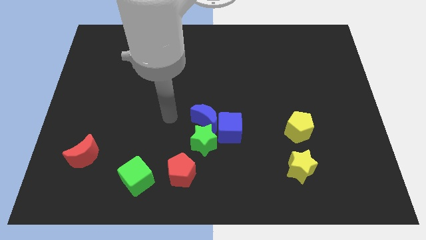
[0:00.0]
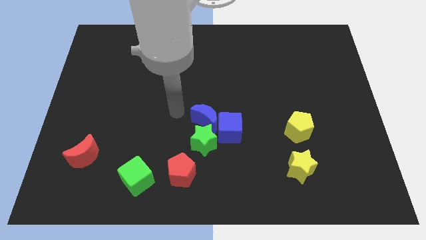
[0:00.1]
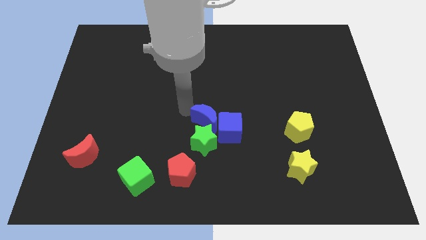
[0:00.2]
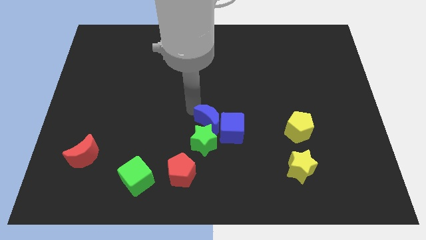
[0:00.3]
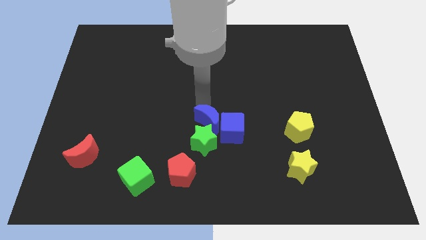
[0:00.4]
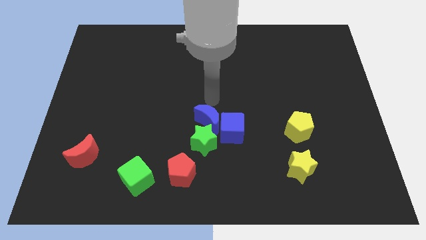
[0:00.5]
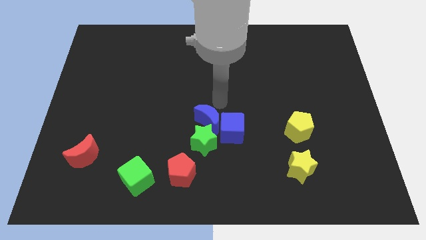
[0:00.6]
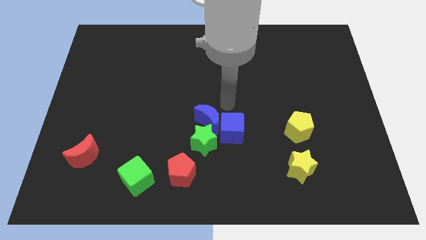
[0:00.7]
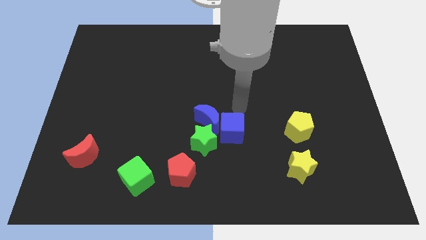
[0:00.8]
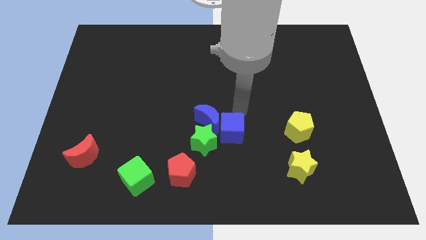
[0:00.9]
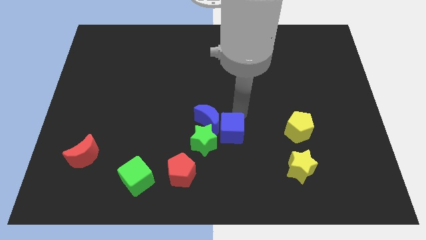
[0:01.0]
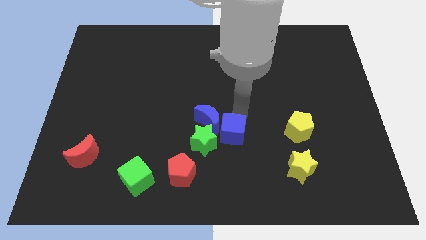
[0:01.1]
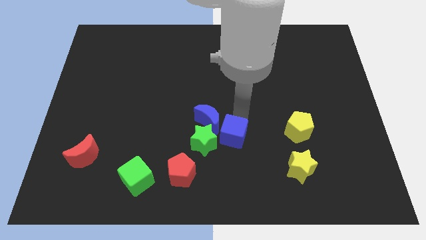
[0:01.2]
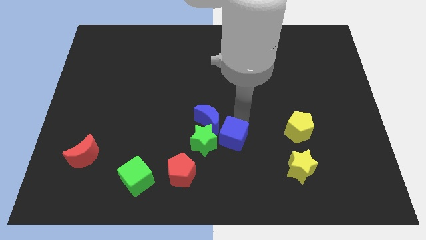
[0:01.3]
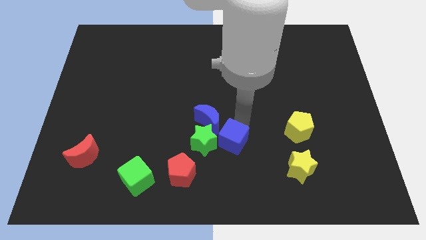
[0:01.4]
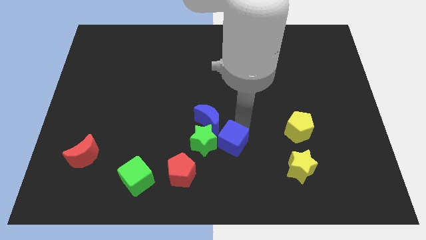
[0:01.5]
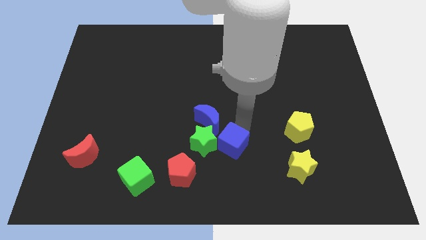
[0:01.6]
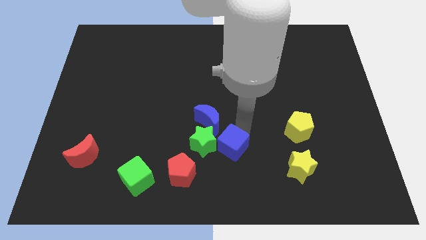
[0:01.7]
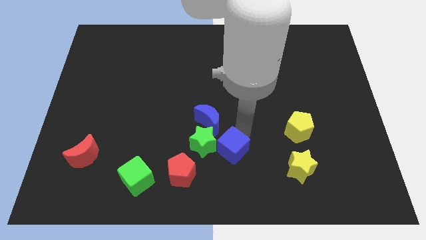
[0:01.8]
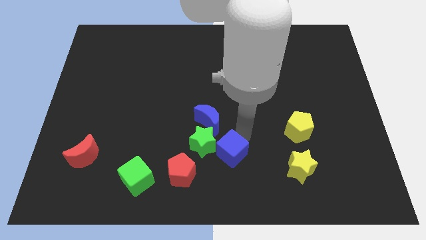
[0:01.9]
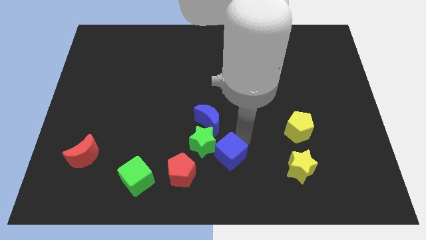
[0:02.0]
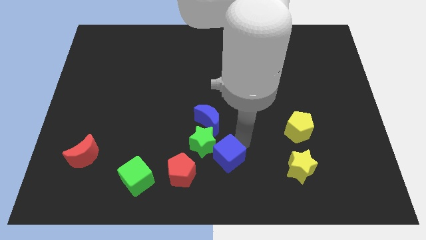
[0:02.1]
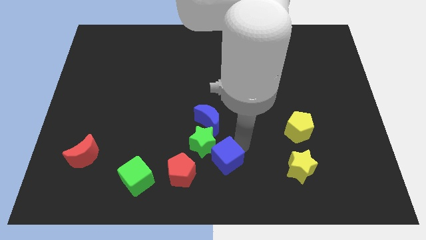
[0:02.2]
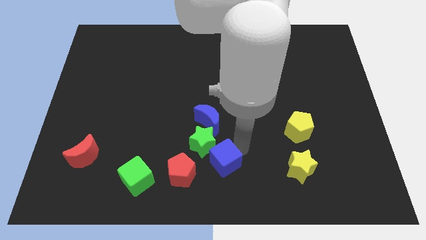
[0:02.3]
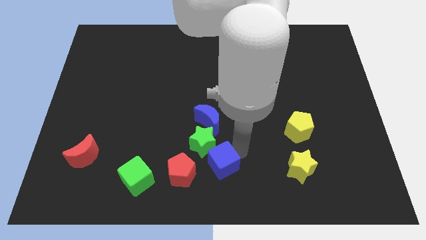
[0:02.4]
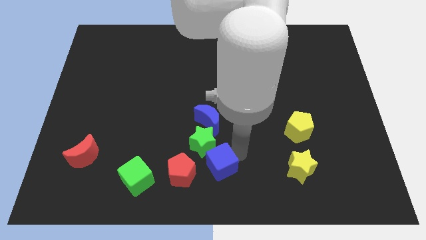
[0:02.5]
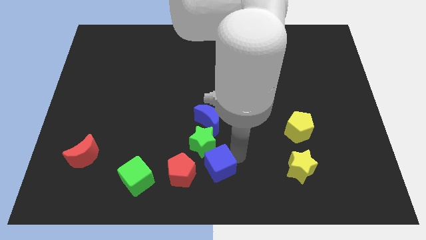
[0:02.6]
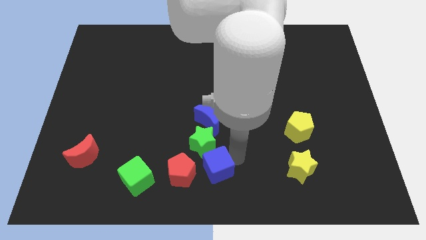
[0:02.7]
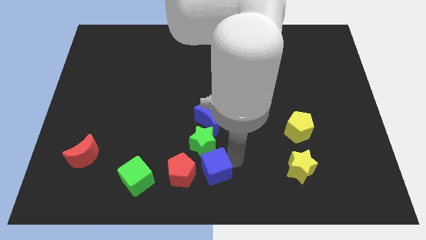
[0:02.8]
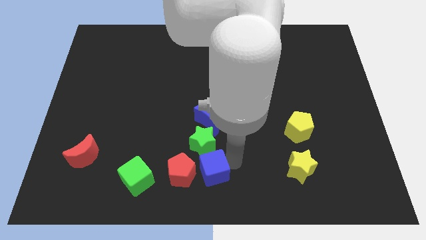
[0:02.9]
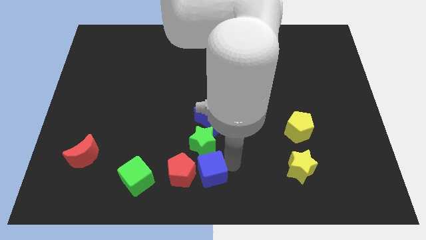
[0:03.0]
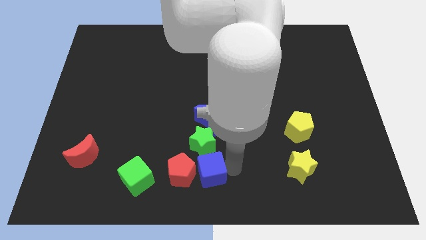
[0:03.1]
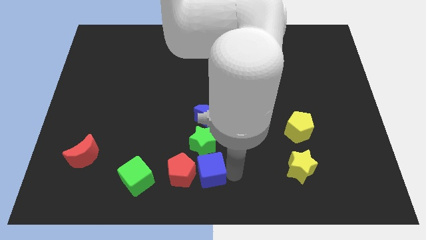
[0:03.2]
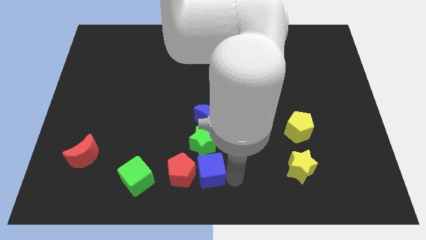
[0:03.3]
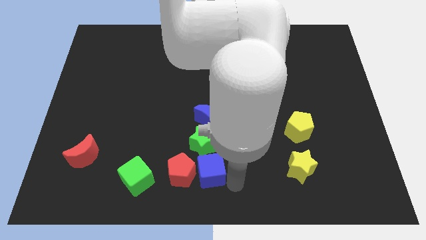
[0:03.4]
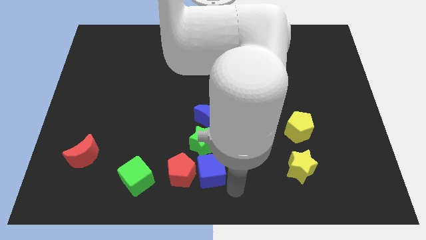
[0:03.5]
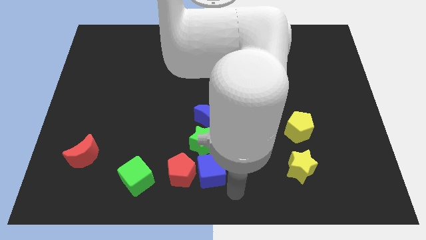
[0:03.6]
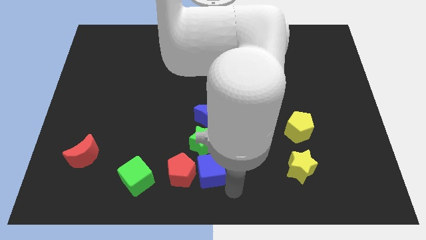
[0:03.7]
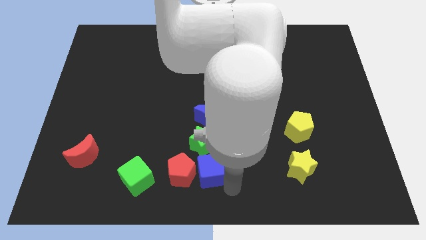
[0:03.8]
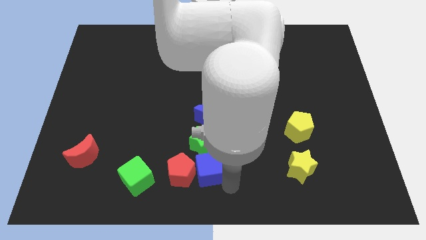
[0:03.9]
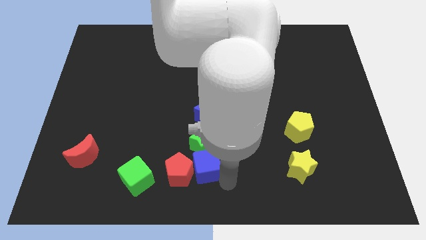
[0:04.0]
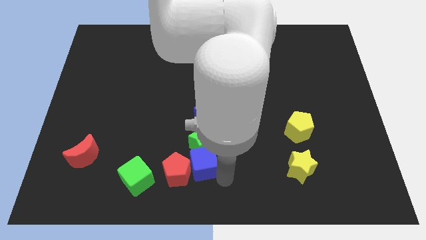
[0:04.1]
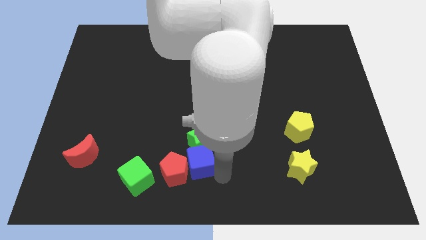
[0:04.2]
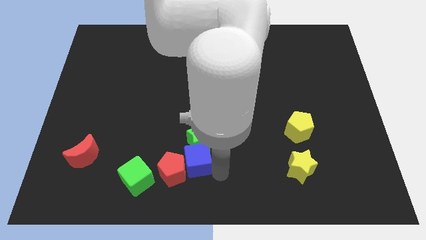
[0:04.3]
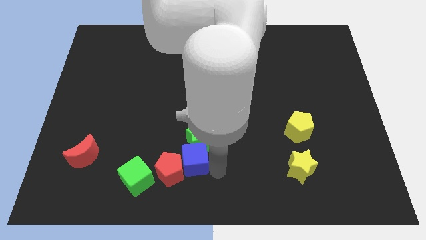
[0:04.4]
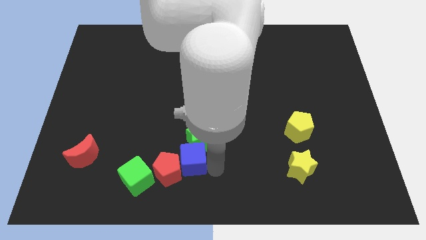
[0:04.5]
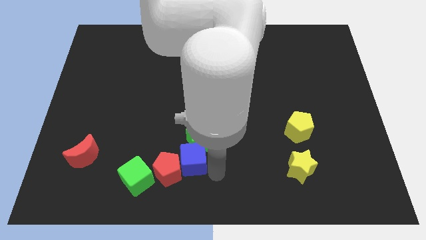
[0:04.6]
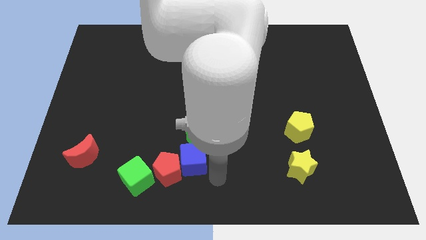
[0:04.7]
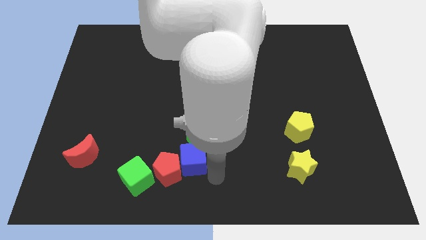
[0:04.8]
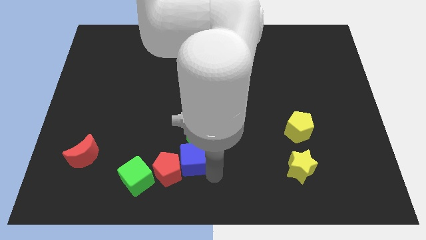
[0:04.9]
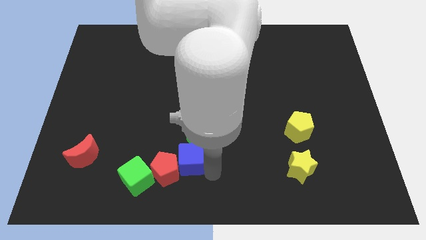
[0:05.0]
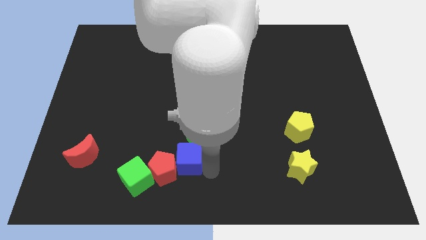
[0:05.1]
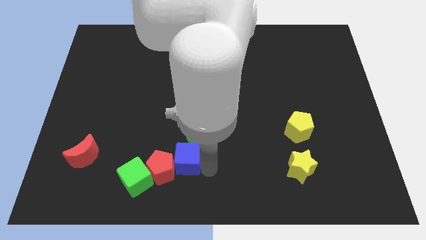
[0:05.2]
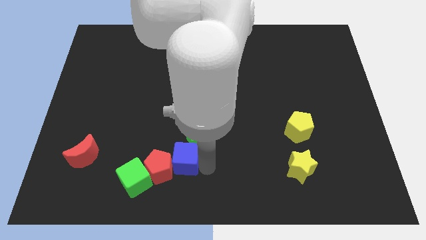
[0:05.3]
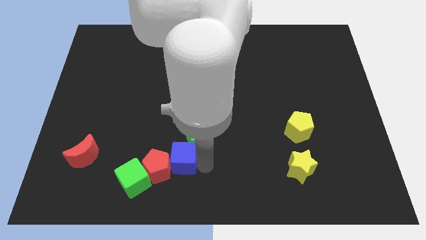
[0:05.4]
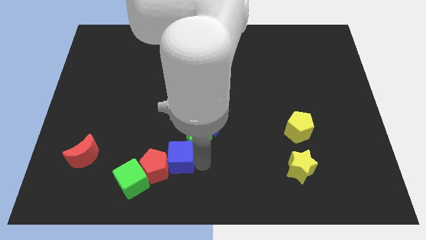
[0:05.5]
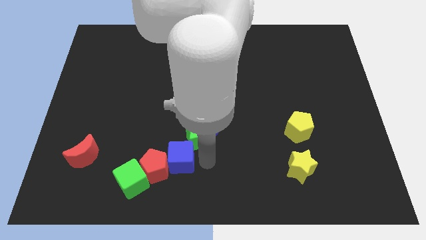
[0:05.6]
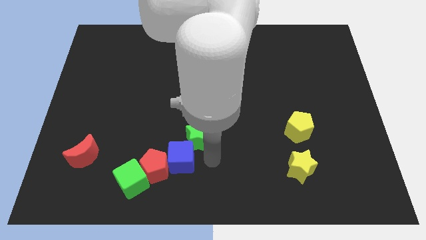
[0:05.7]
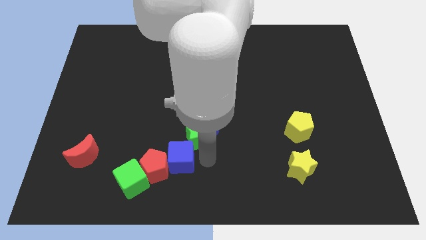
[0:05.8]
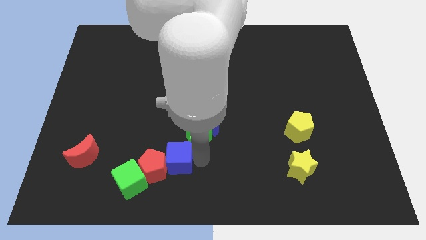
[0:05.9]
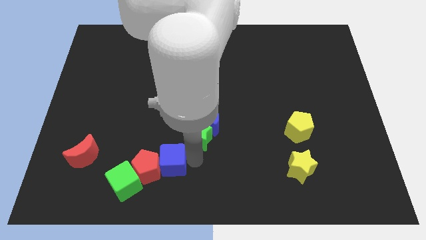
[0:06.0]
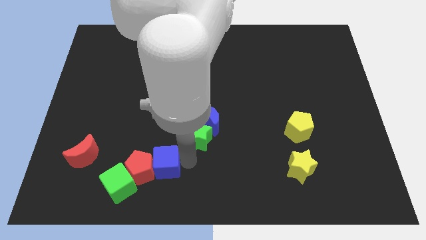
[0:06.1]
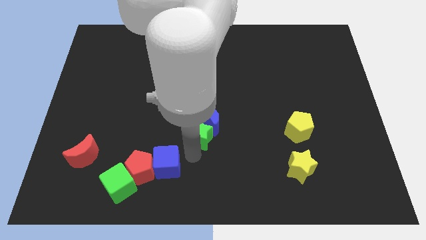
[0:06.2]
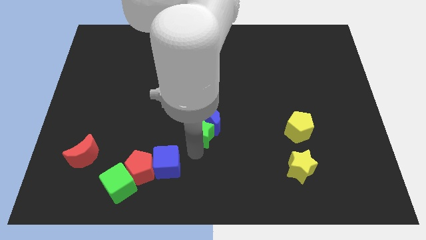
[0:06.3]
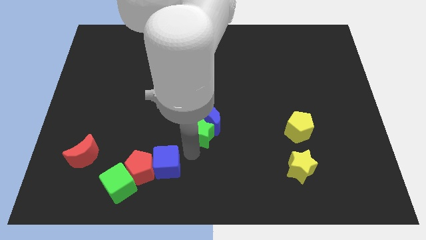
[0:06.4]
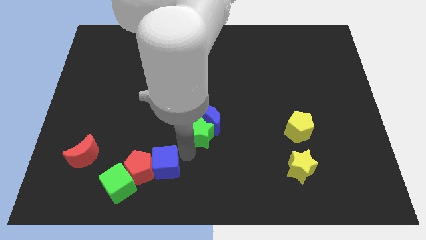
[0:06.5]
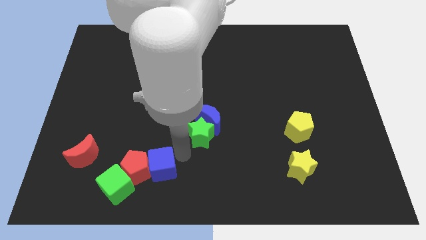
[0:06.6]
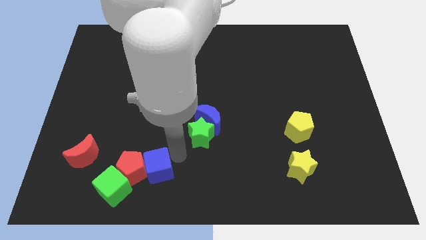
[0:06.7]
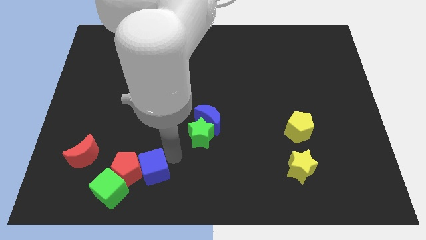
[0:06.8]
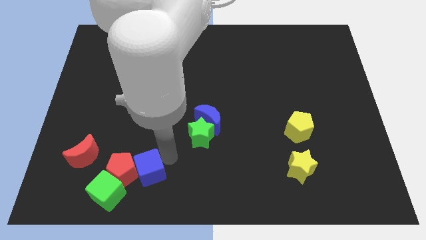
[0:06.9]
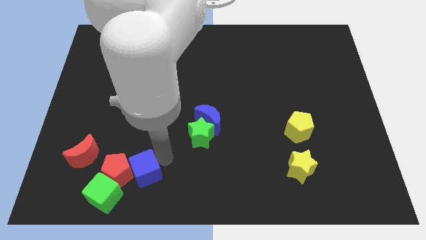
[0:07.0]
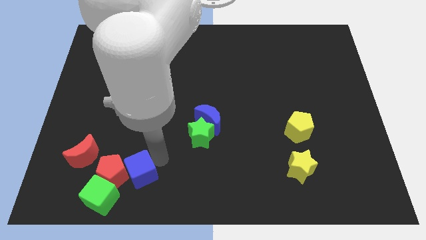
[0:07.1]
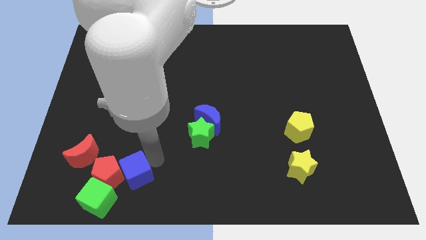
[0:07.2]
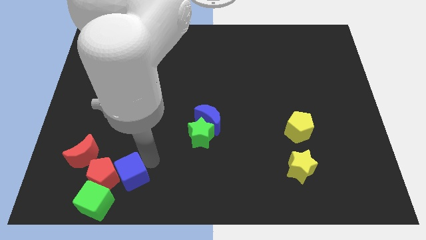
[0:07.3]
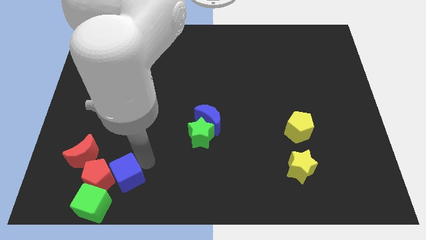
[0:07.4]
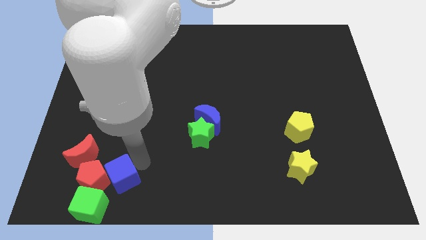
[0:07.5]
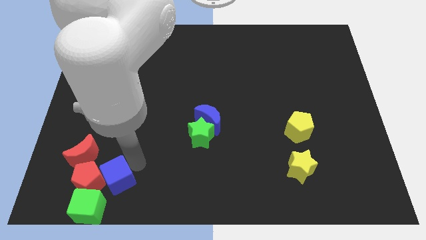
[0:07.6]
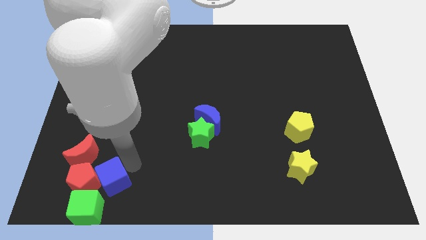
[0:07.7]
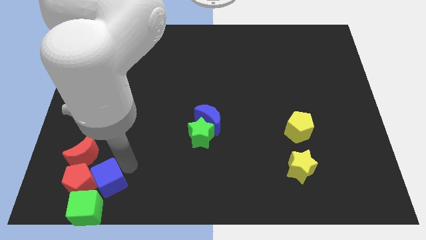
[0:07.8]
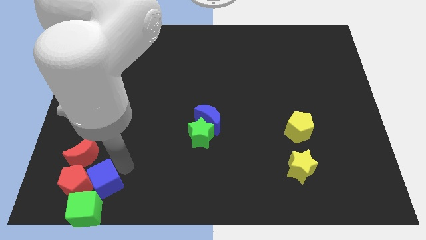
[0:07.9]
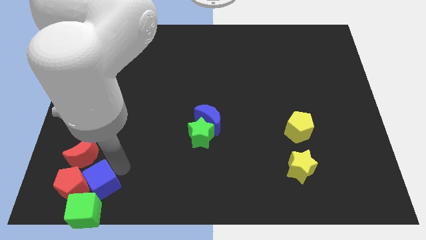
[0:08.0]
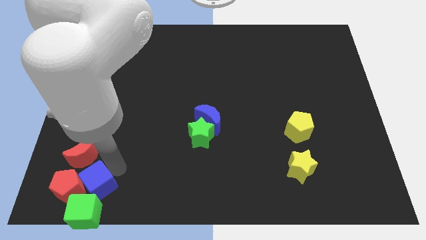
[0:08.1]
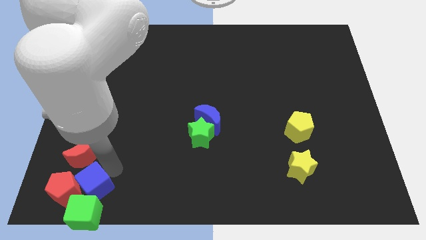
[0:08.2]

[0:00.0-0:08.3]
slide the blue cube to the green cube
